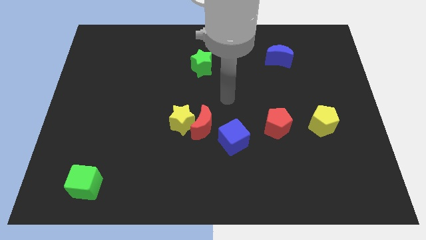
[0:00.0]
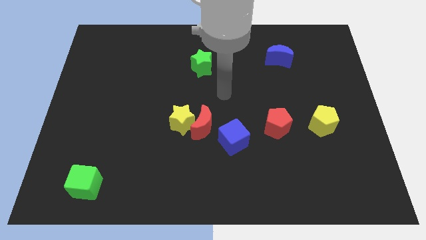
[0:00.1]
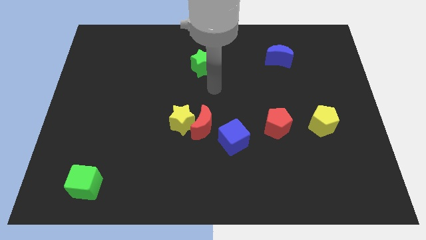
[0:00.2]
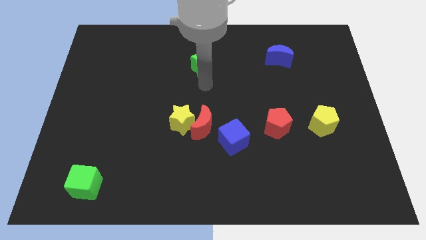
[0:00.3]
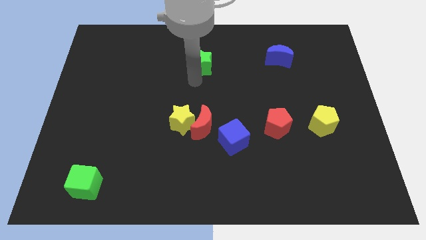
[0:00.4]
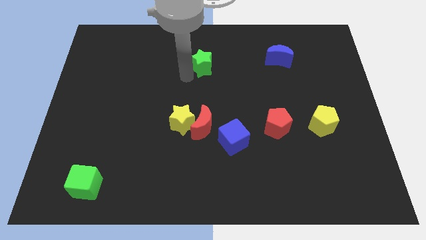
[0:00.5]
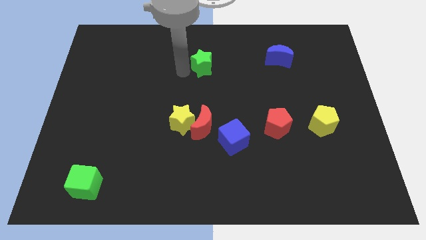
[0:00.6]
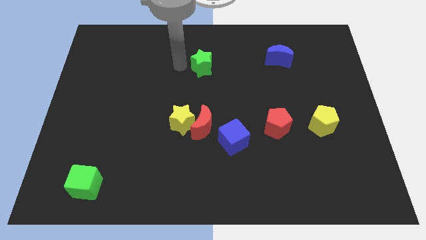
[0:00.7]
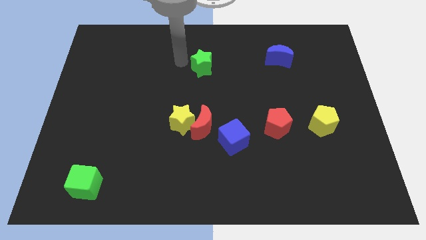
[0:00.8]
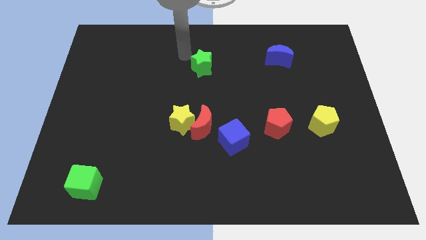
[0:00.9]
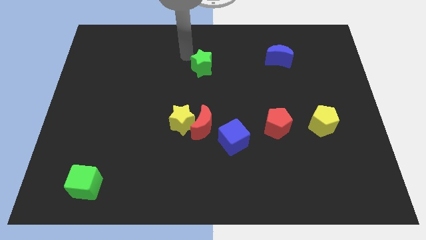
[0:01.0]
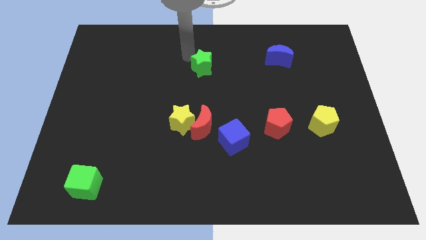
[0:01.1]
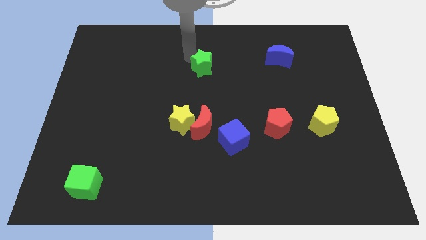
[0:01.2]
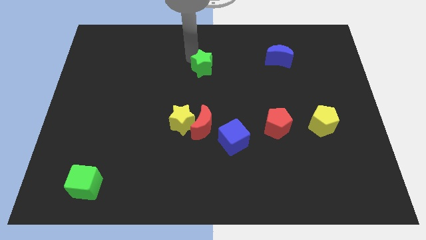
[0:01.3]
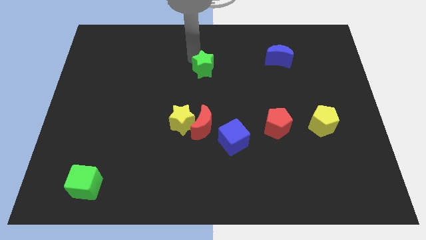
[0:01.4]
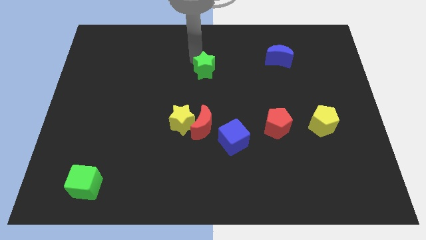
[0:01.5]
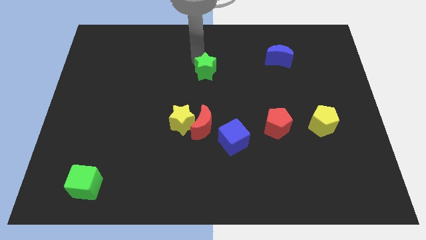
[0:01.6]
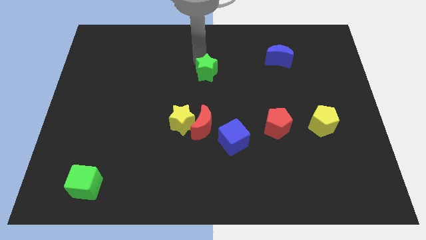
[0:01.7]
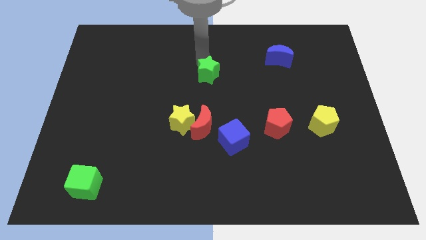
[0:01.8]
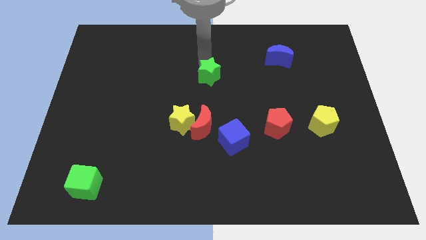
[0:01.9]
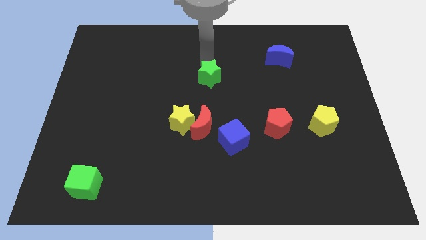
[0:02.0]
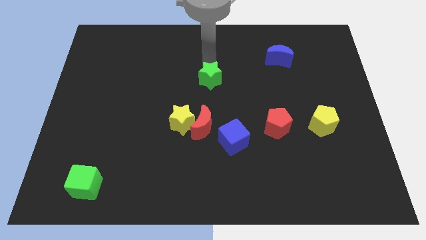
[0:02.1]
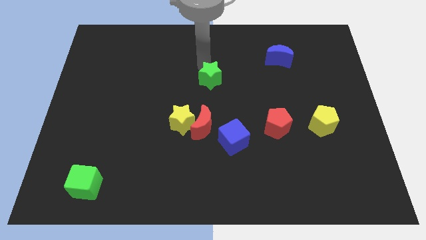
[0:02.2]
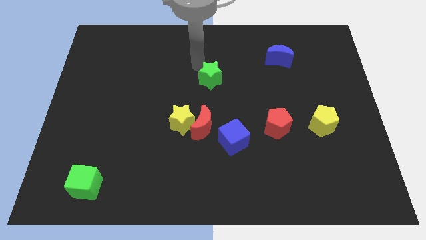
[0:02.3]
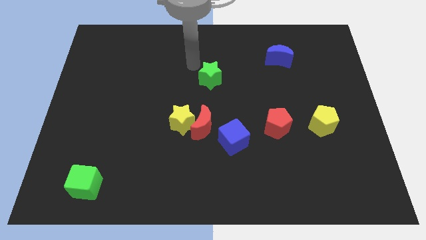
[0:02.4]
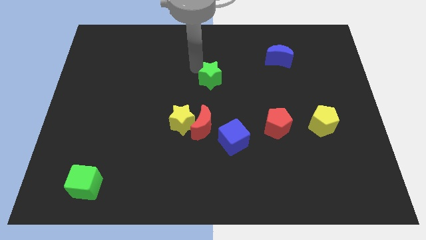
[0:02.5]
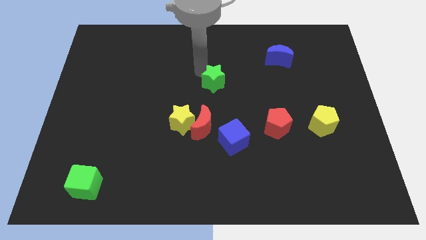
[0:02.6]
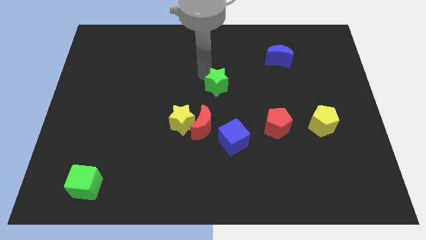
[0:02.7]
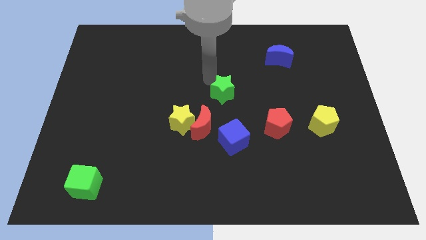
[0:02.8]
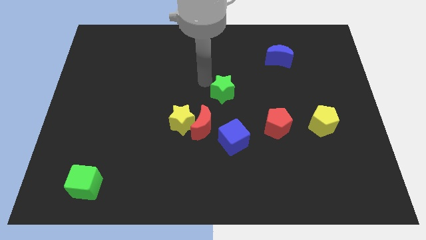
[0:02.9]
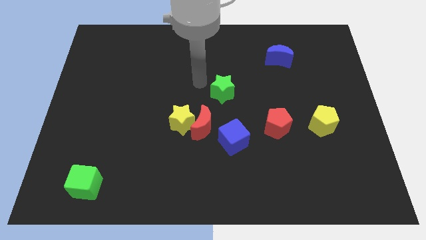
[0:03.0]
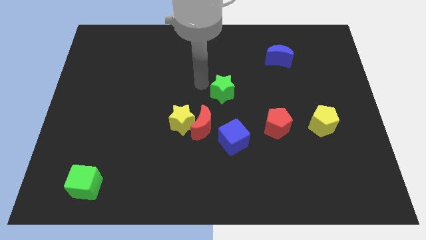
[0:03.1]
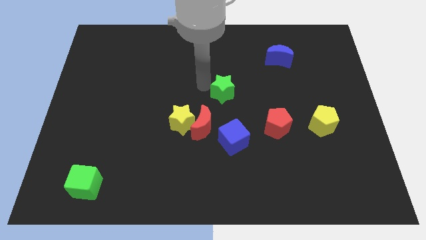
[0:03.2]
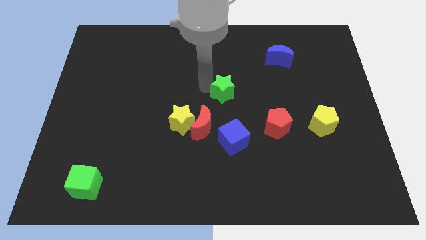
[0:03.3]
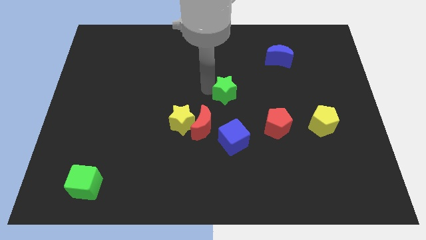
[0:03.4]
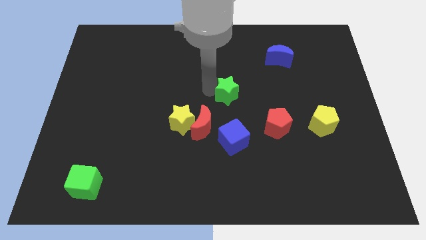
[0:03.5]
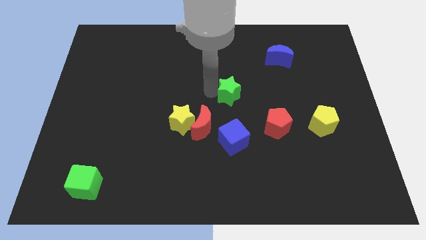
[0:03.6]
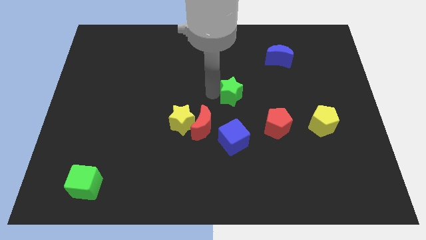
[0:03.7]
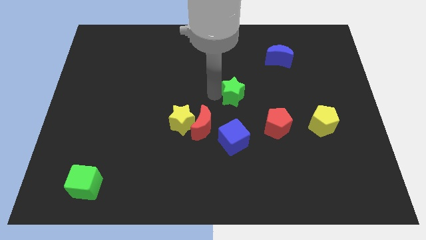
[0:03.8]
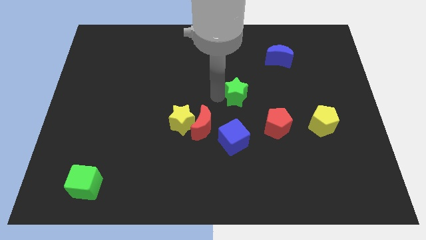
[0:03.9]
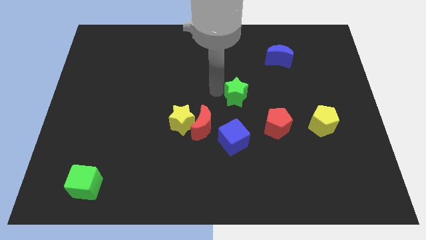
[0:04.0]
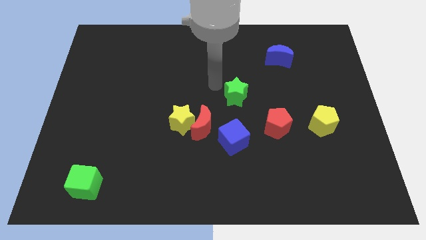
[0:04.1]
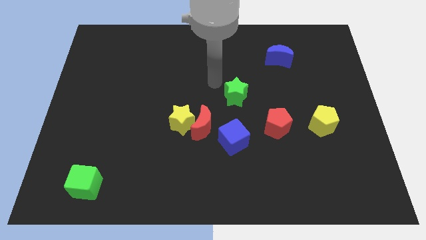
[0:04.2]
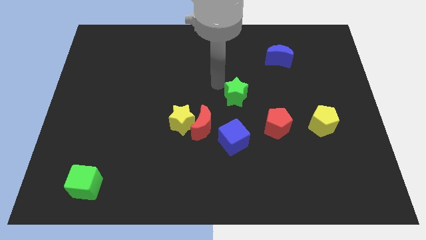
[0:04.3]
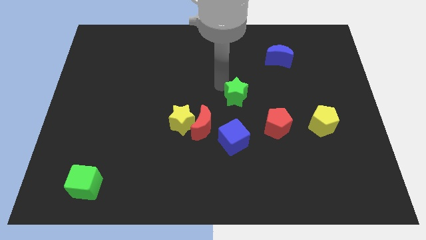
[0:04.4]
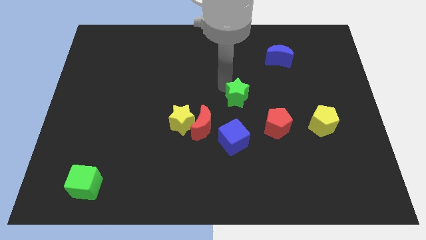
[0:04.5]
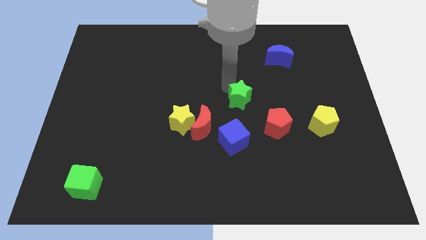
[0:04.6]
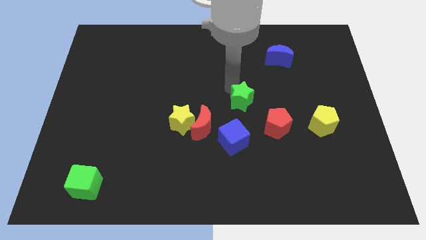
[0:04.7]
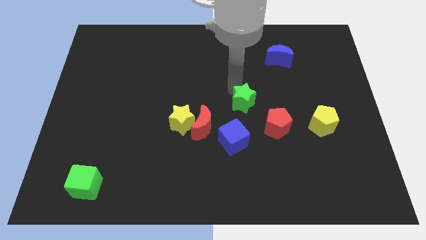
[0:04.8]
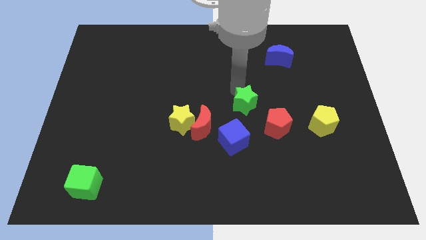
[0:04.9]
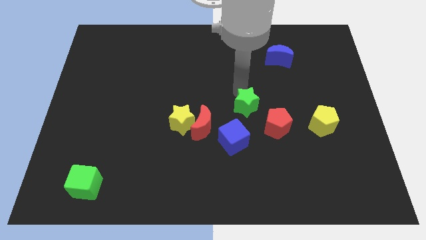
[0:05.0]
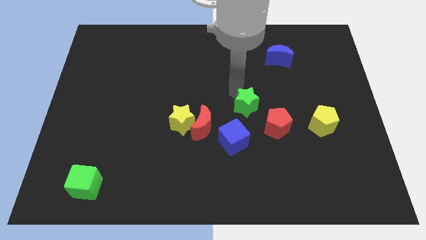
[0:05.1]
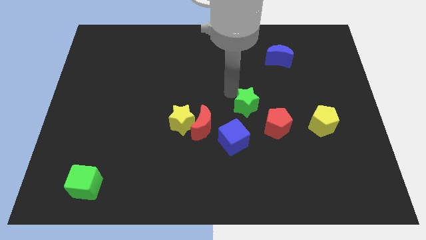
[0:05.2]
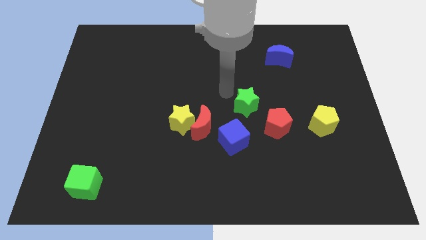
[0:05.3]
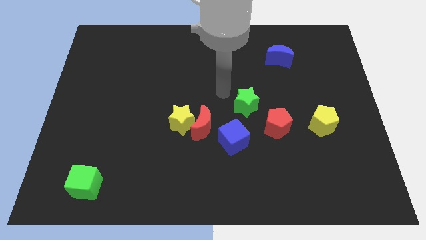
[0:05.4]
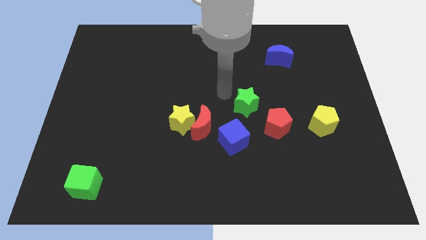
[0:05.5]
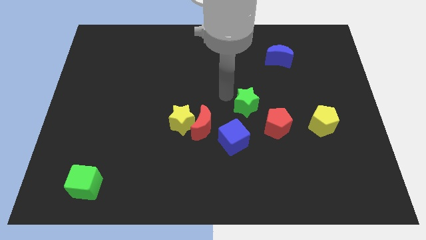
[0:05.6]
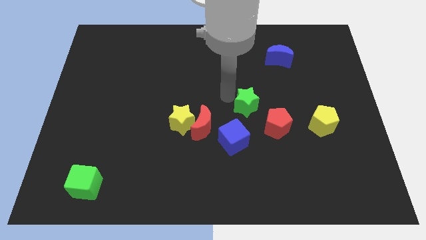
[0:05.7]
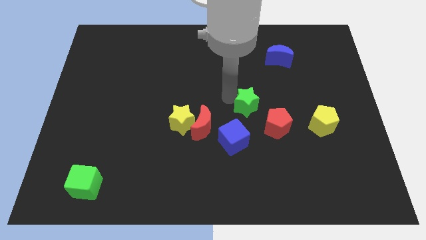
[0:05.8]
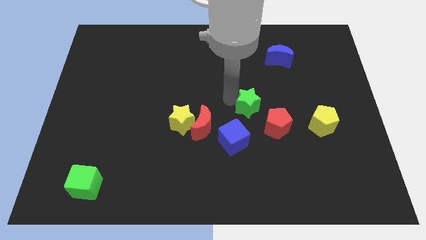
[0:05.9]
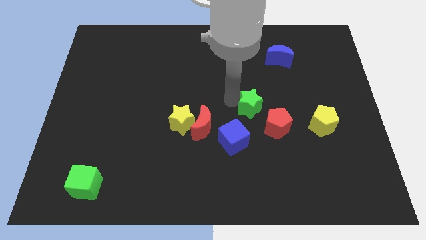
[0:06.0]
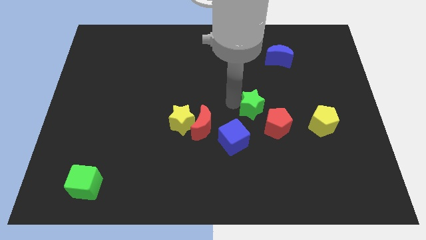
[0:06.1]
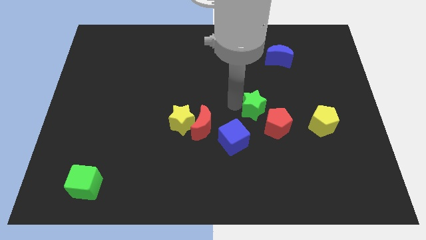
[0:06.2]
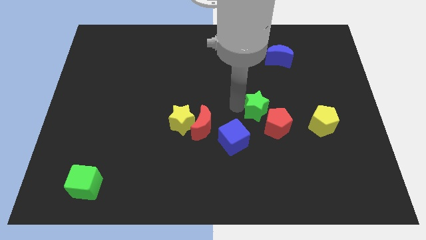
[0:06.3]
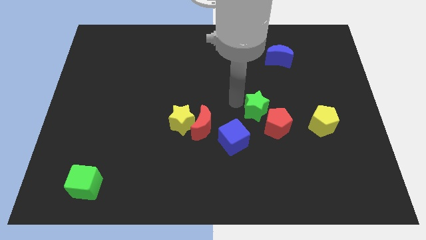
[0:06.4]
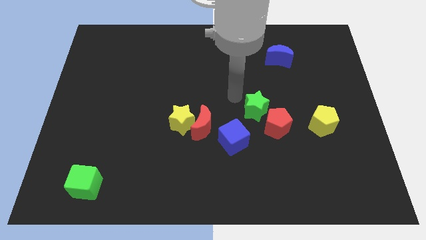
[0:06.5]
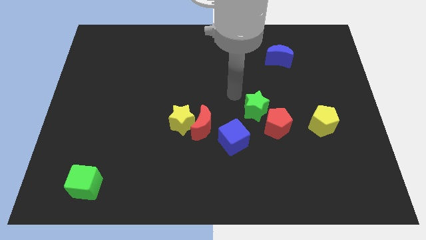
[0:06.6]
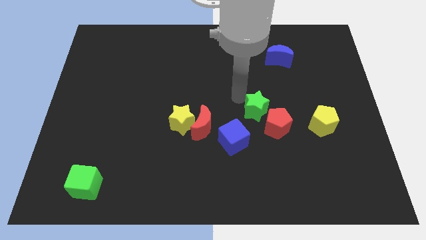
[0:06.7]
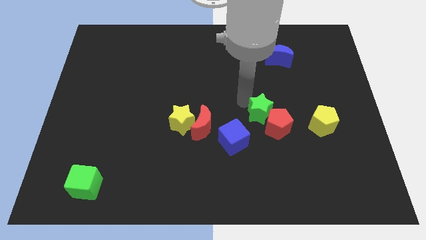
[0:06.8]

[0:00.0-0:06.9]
put the green star towards the red pentagon
